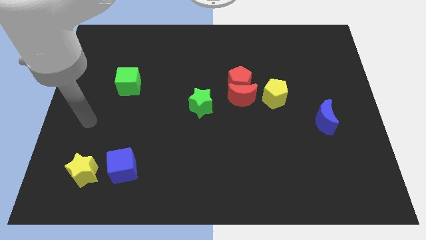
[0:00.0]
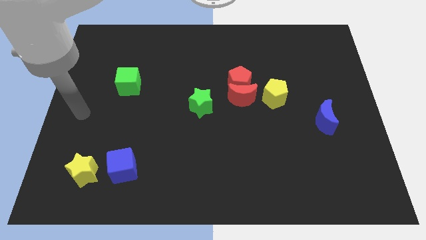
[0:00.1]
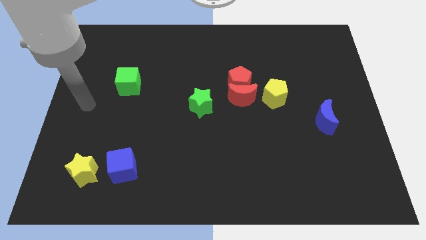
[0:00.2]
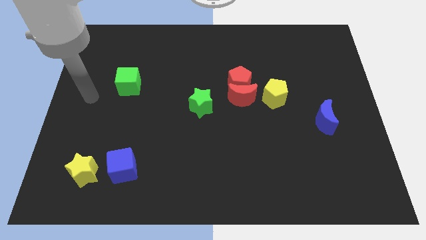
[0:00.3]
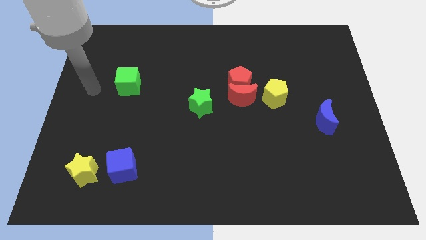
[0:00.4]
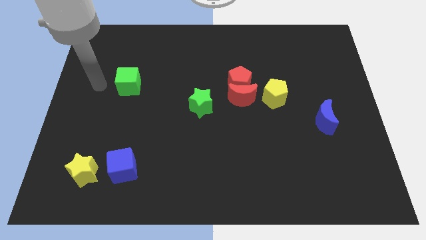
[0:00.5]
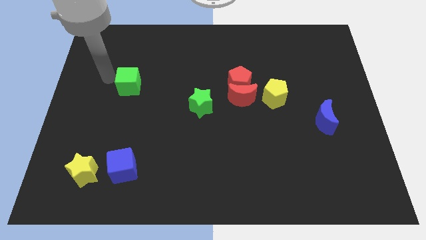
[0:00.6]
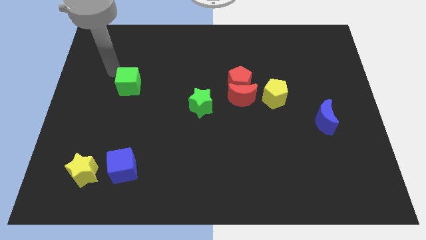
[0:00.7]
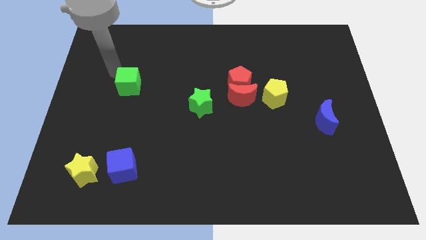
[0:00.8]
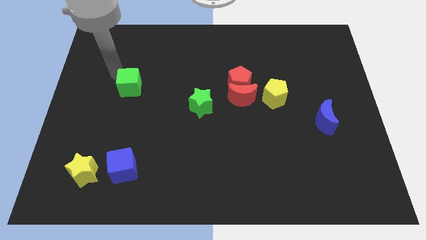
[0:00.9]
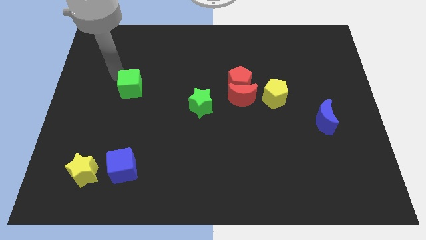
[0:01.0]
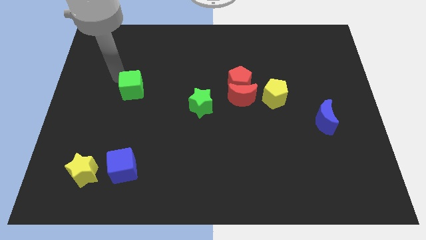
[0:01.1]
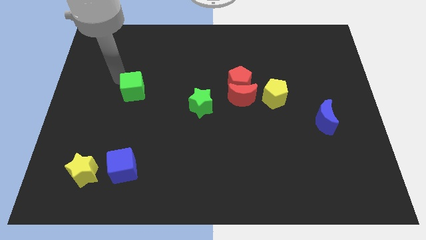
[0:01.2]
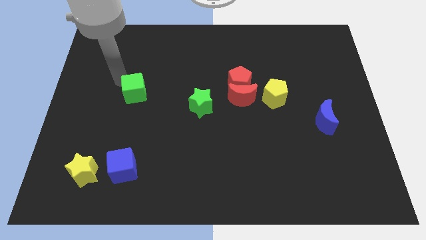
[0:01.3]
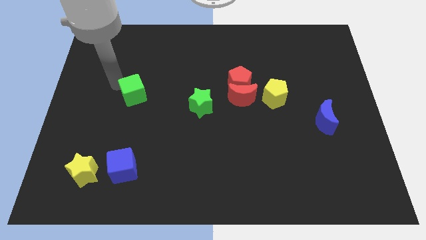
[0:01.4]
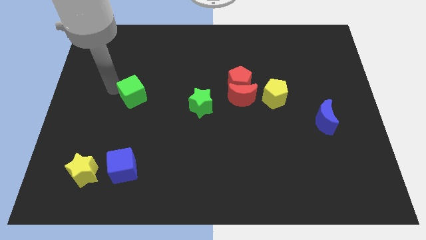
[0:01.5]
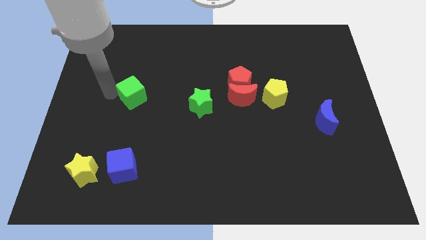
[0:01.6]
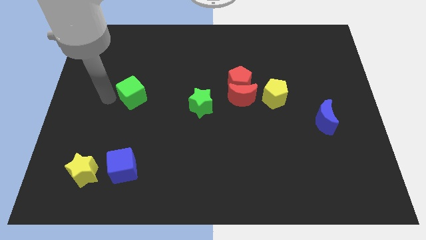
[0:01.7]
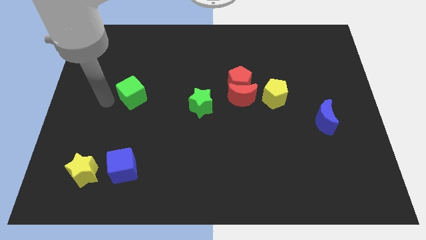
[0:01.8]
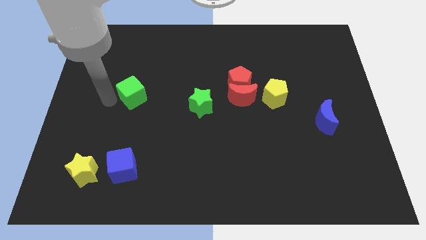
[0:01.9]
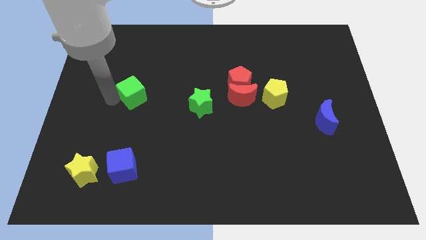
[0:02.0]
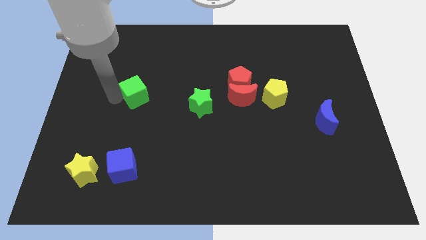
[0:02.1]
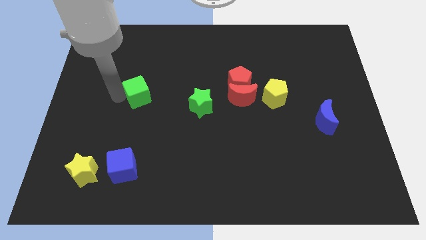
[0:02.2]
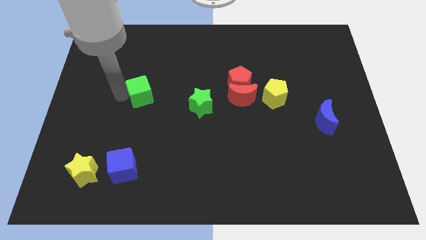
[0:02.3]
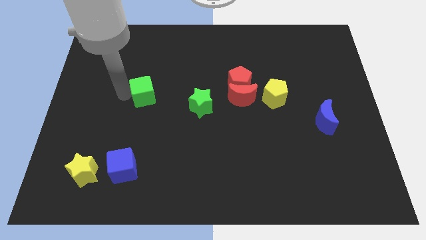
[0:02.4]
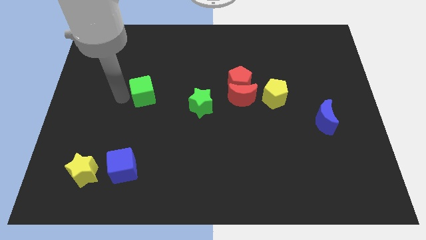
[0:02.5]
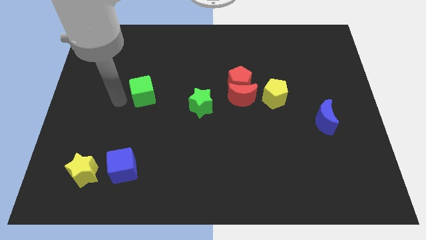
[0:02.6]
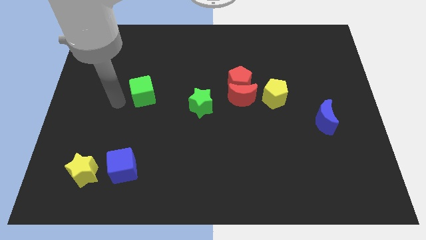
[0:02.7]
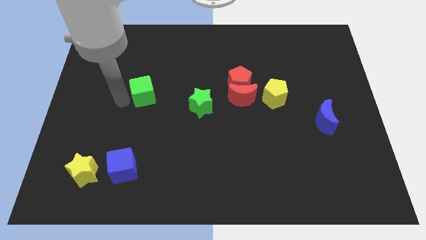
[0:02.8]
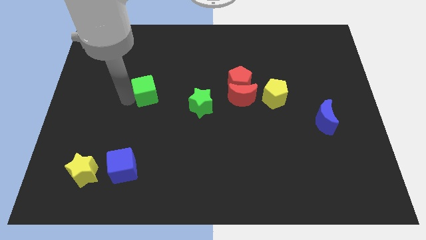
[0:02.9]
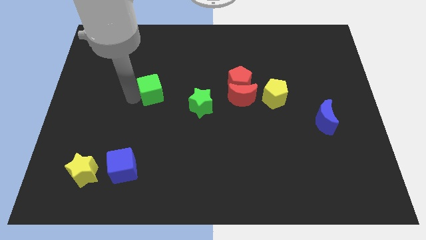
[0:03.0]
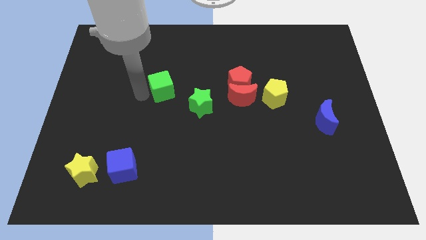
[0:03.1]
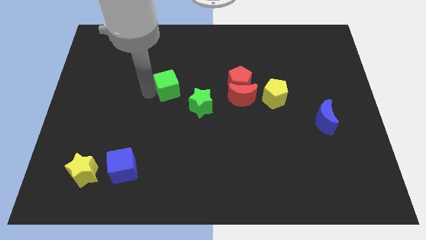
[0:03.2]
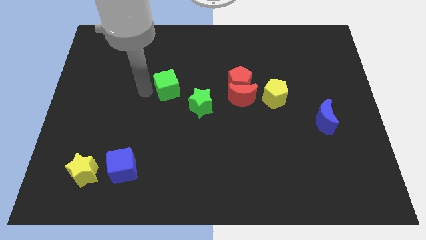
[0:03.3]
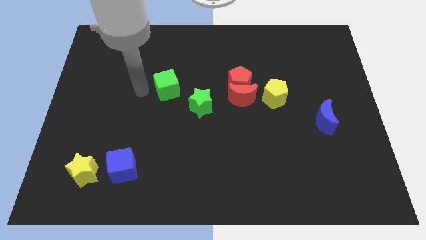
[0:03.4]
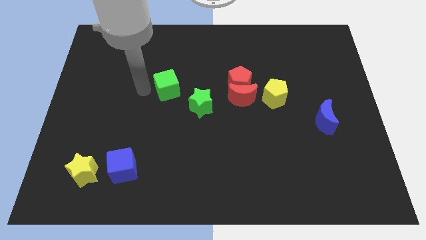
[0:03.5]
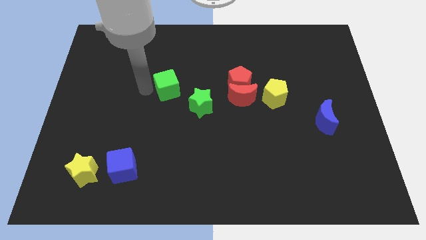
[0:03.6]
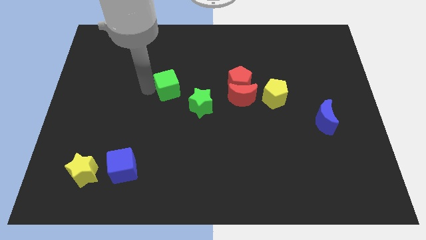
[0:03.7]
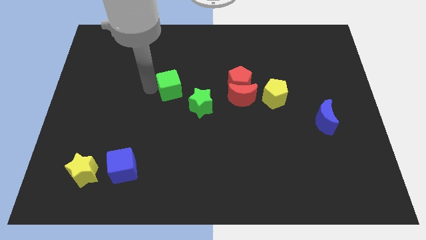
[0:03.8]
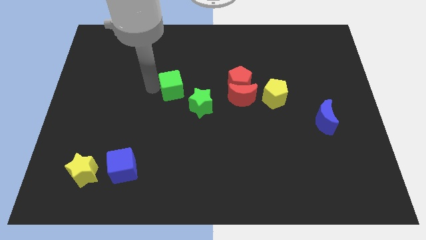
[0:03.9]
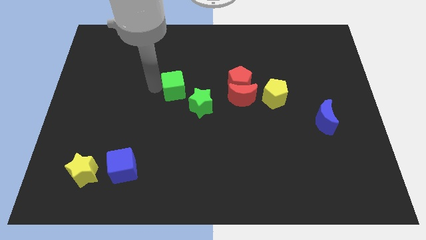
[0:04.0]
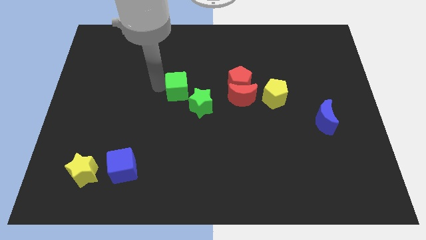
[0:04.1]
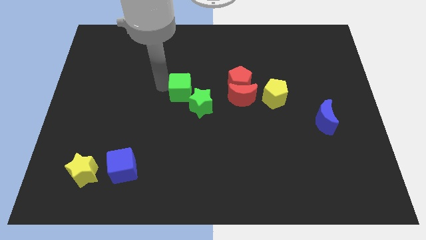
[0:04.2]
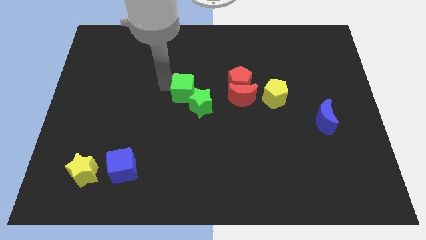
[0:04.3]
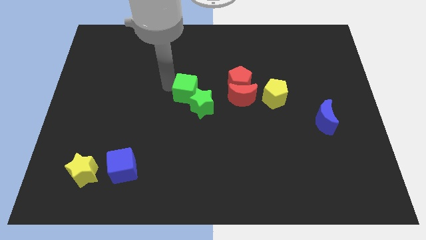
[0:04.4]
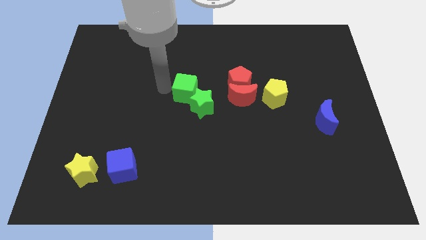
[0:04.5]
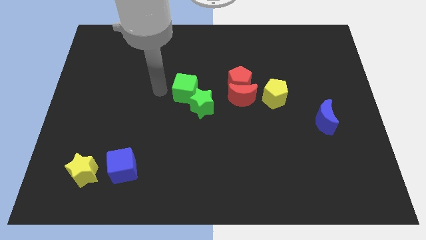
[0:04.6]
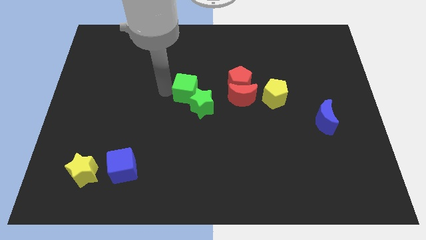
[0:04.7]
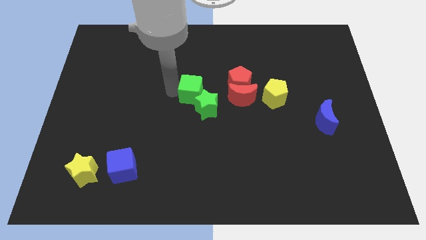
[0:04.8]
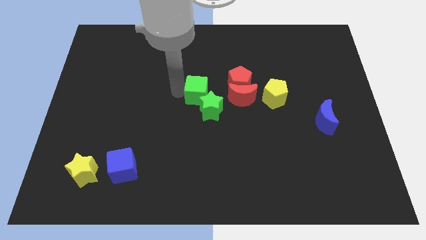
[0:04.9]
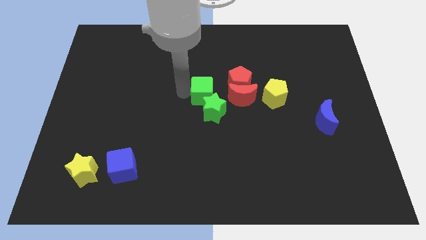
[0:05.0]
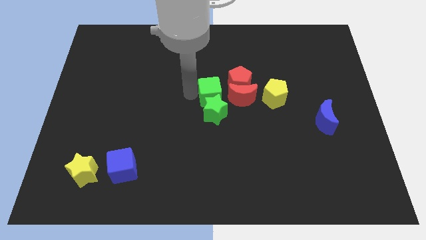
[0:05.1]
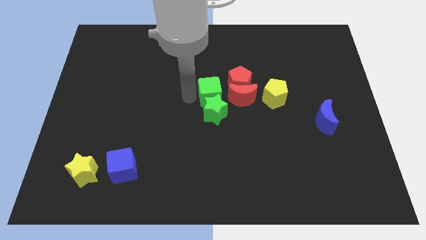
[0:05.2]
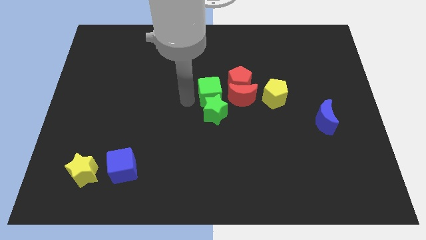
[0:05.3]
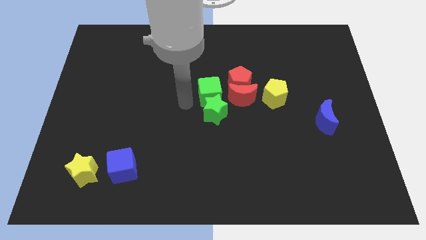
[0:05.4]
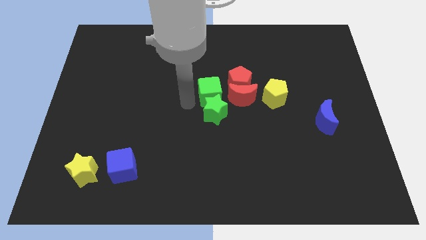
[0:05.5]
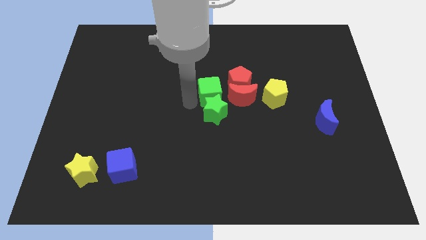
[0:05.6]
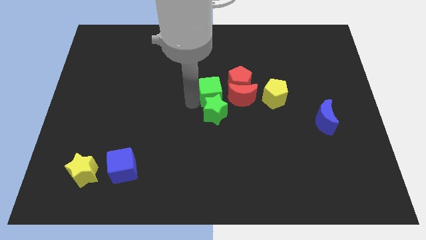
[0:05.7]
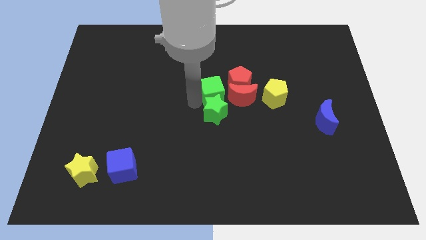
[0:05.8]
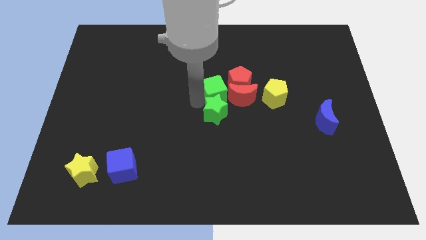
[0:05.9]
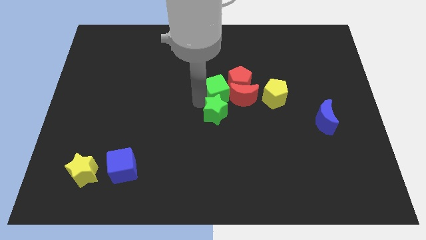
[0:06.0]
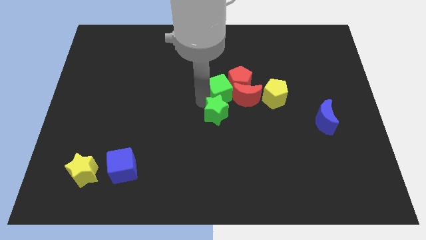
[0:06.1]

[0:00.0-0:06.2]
move the green cube next to the red pentagon

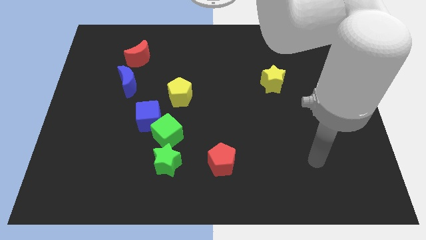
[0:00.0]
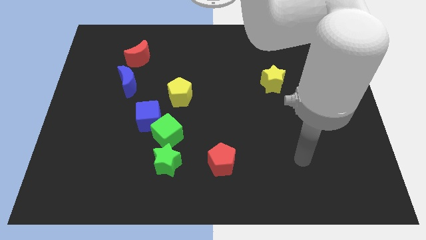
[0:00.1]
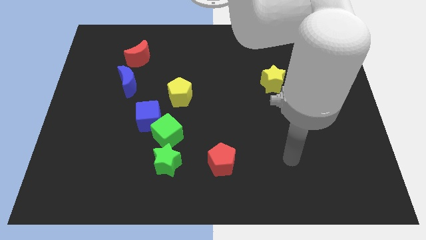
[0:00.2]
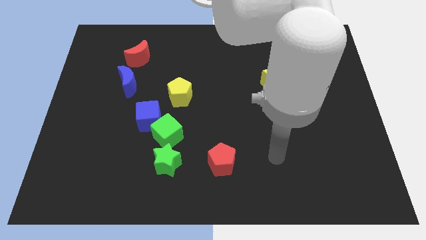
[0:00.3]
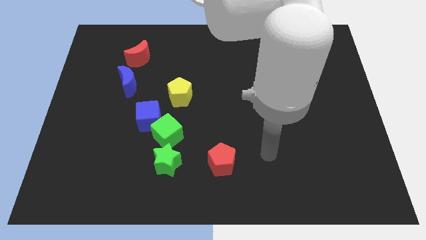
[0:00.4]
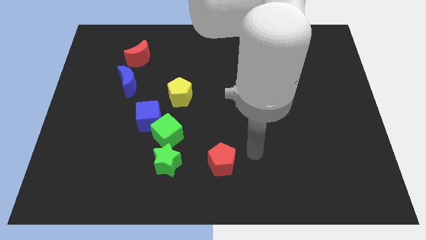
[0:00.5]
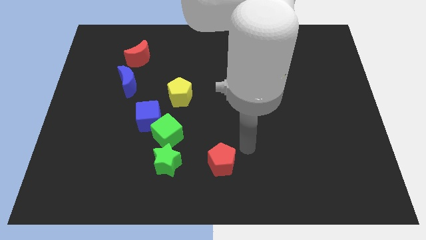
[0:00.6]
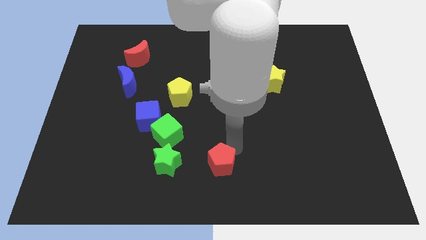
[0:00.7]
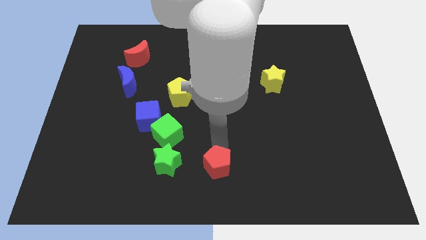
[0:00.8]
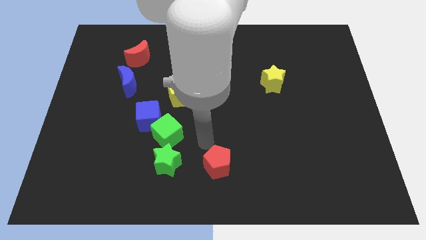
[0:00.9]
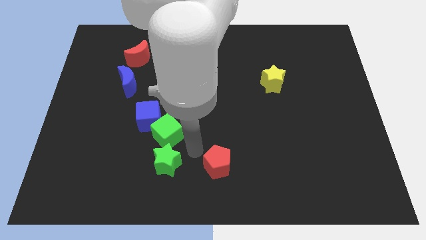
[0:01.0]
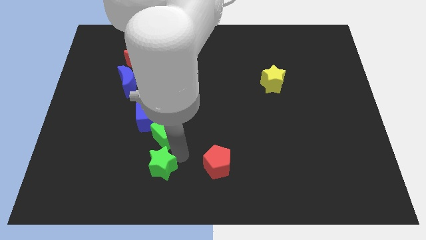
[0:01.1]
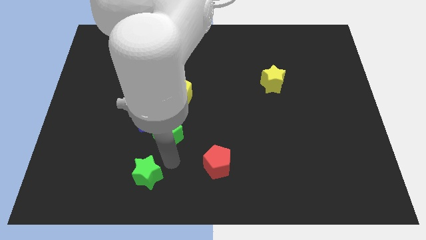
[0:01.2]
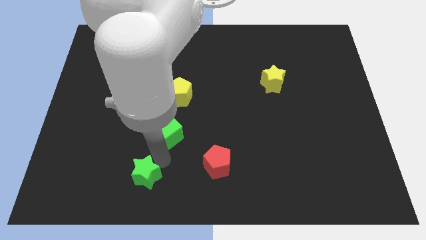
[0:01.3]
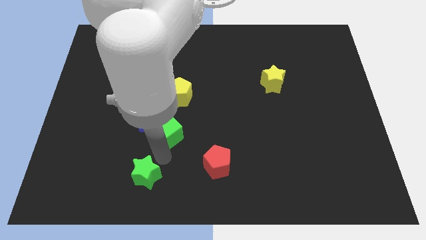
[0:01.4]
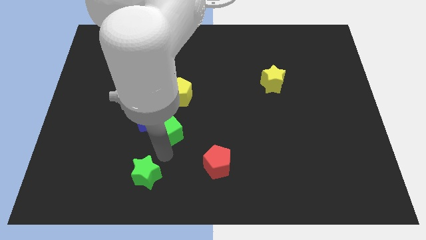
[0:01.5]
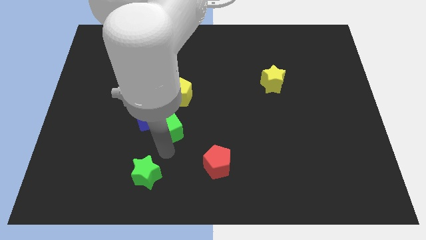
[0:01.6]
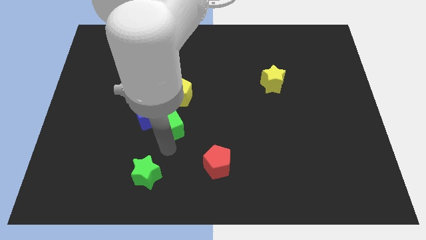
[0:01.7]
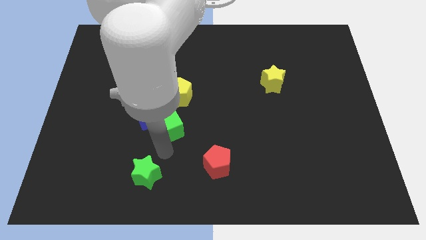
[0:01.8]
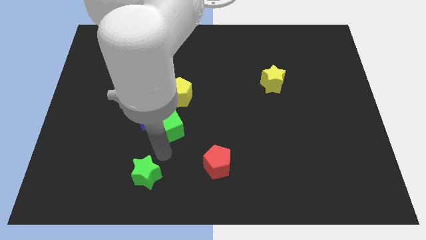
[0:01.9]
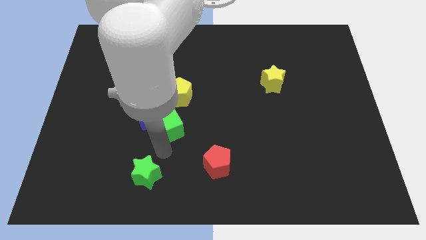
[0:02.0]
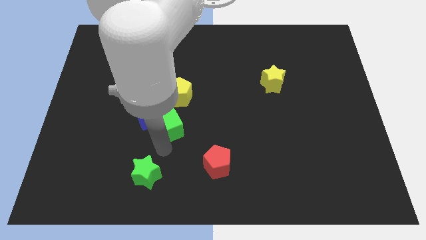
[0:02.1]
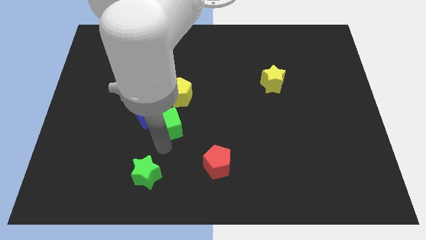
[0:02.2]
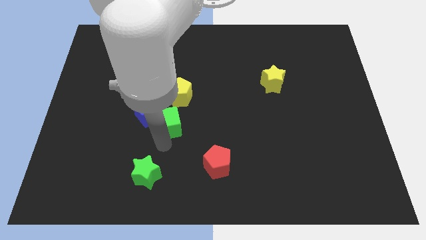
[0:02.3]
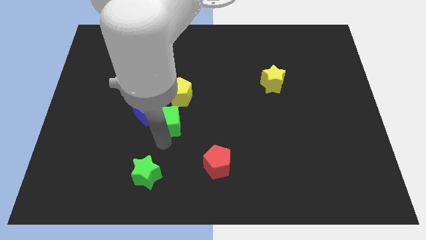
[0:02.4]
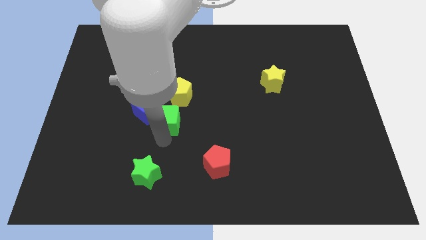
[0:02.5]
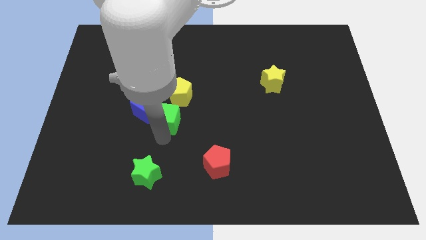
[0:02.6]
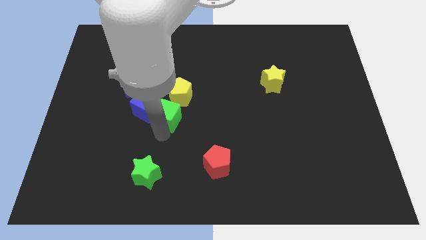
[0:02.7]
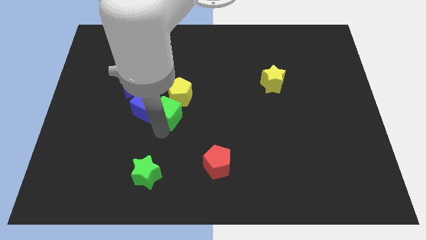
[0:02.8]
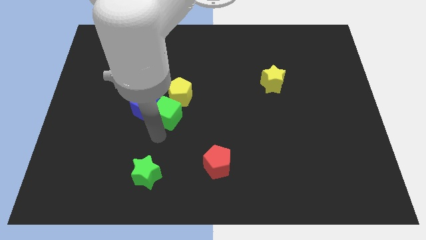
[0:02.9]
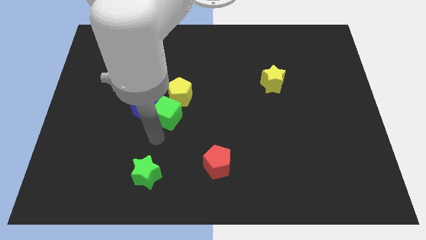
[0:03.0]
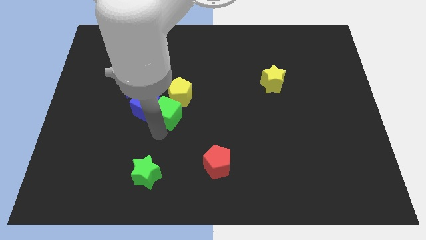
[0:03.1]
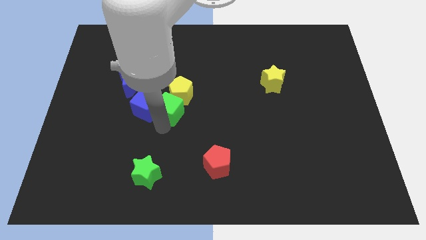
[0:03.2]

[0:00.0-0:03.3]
push the green cube next to the yellow pentagon
